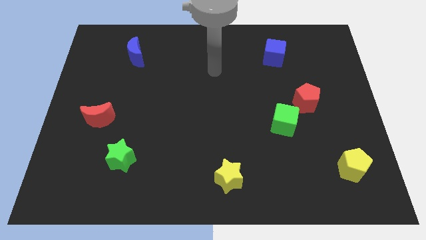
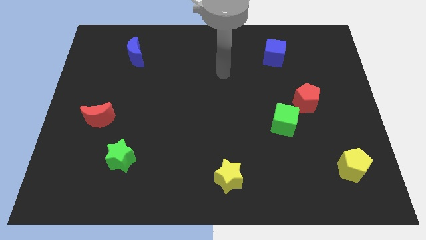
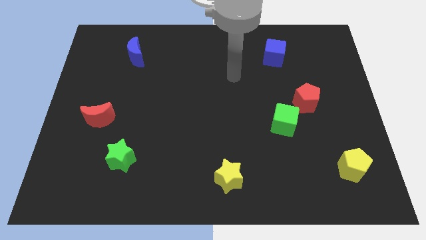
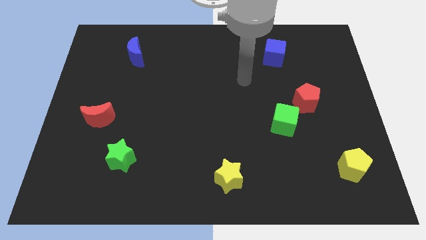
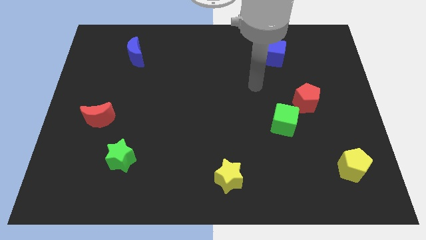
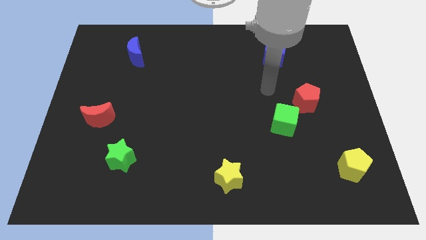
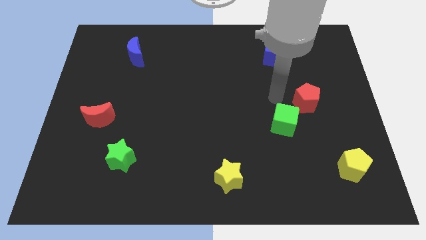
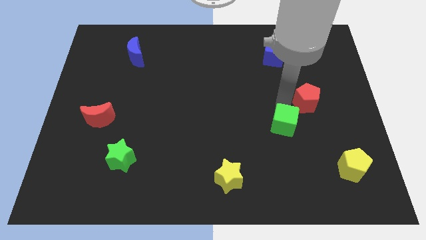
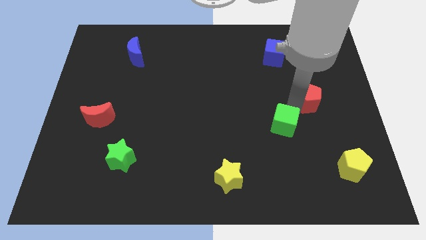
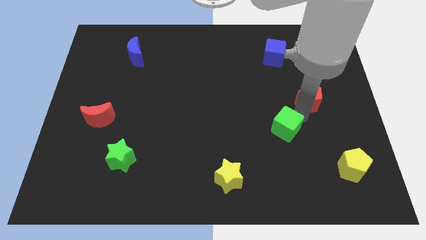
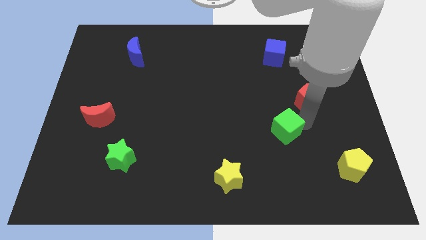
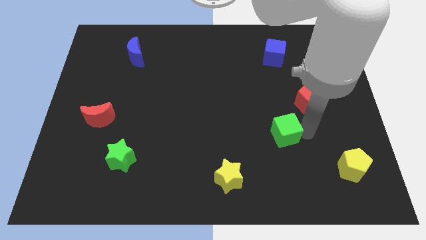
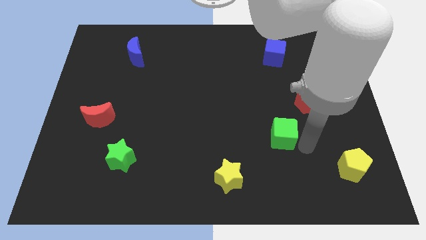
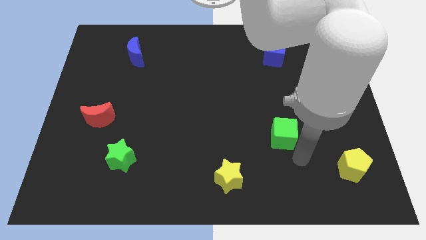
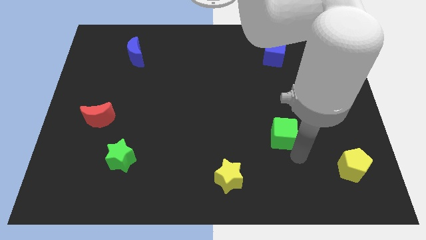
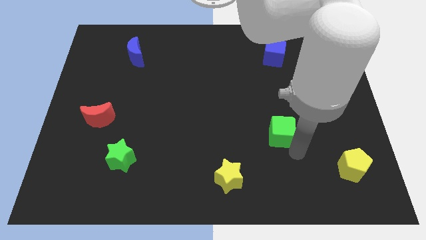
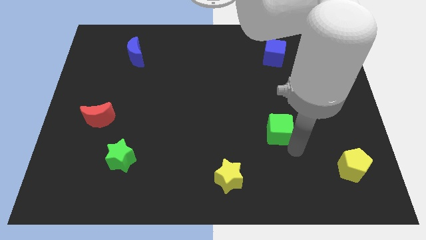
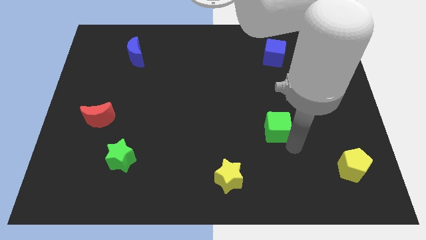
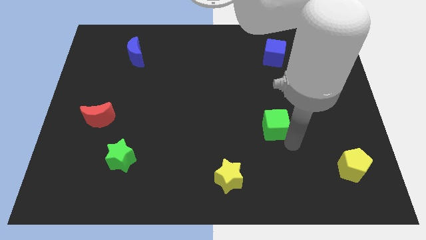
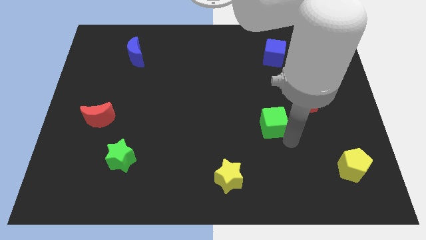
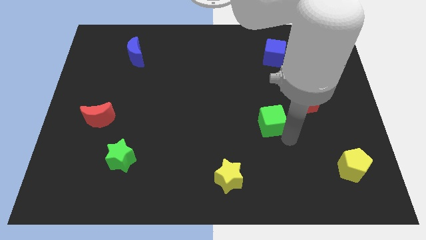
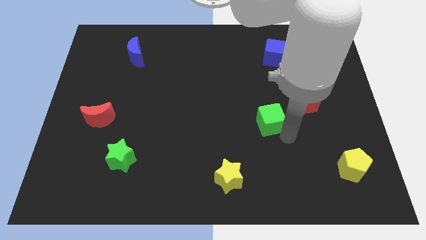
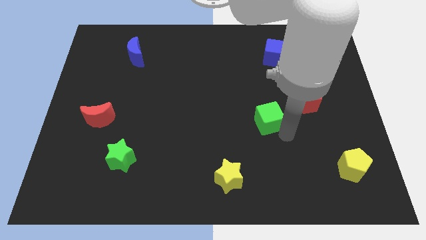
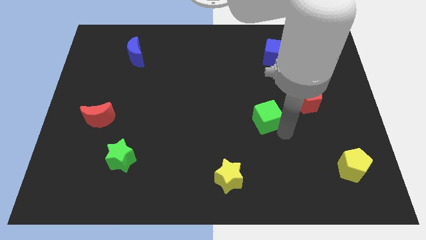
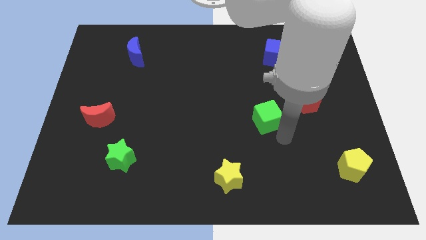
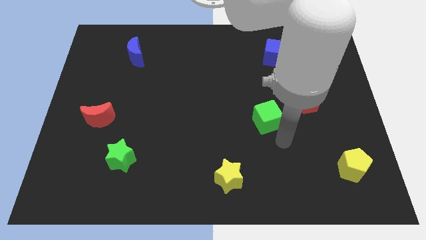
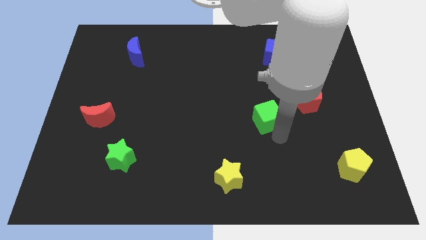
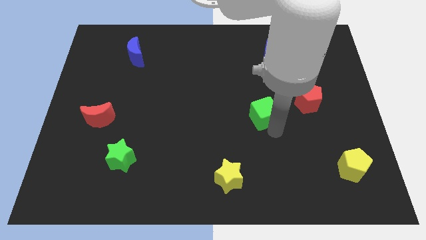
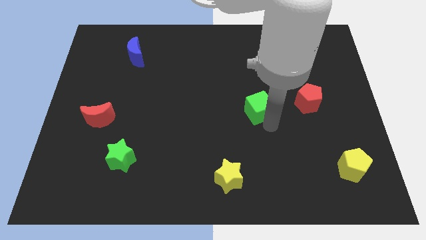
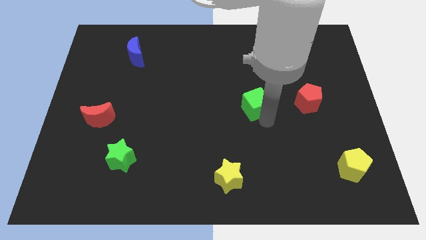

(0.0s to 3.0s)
push the green cube upwards and then left a little

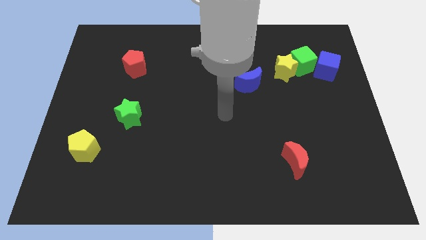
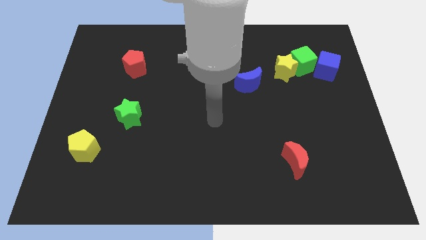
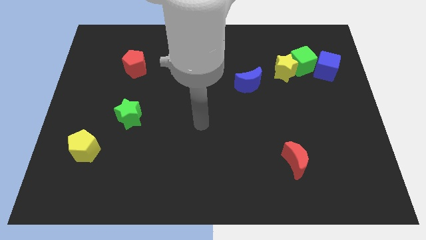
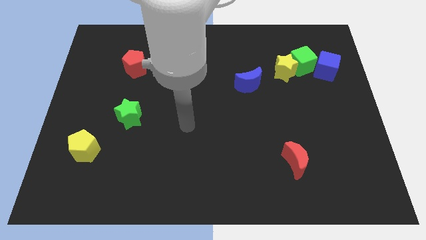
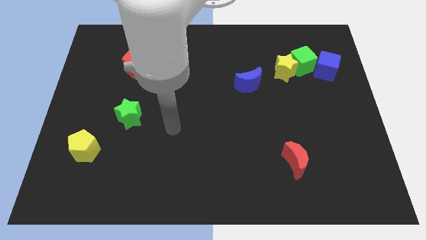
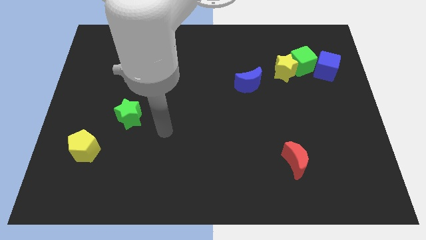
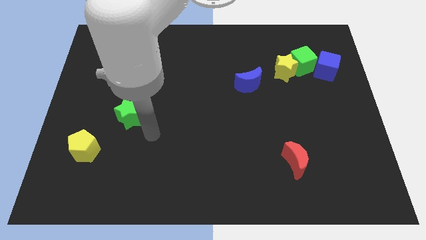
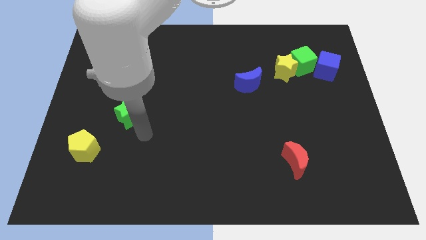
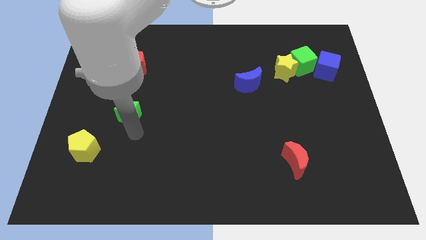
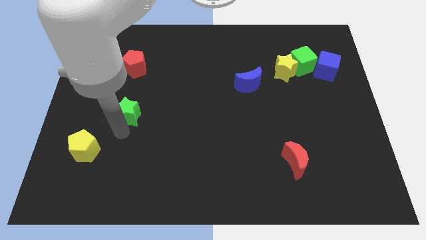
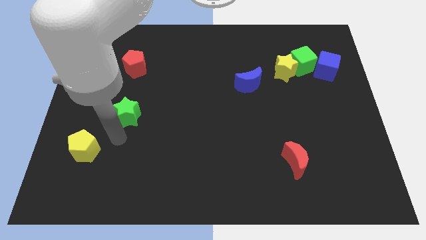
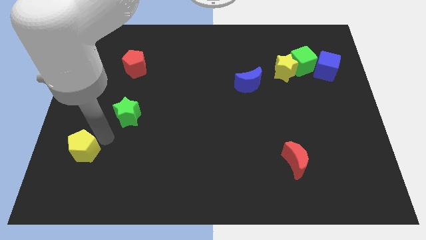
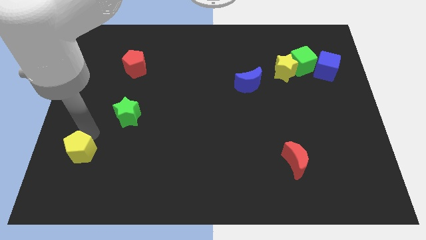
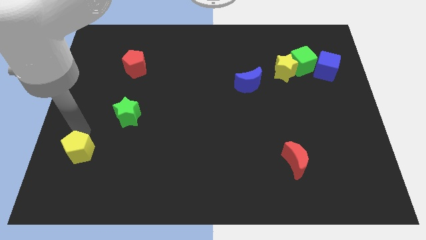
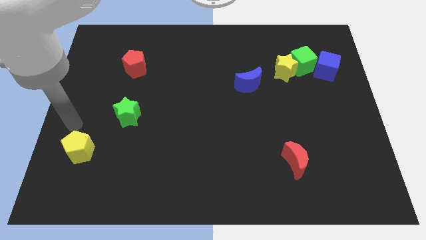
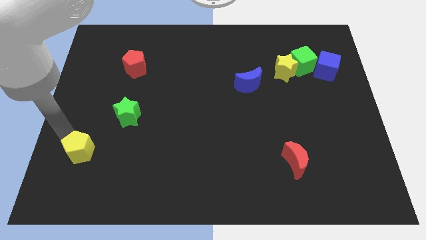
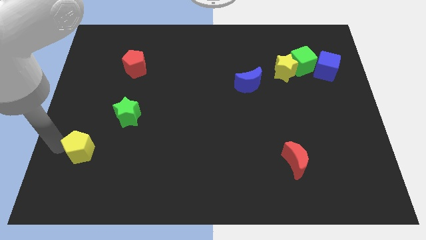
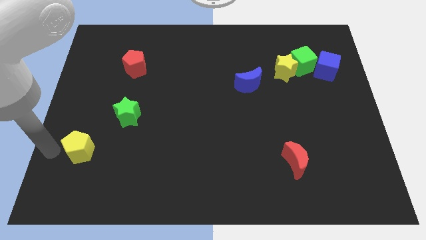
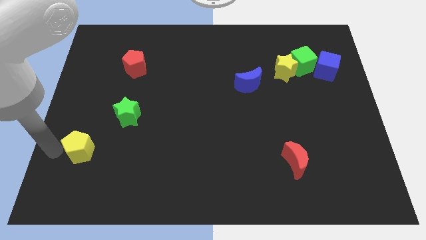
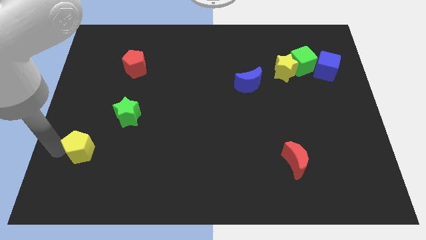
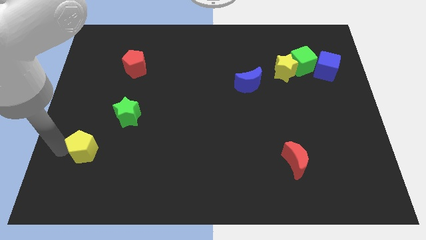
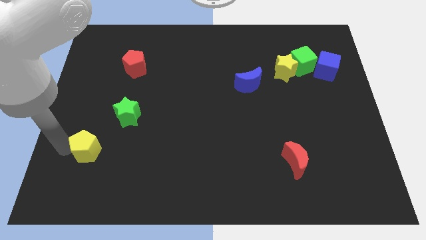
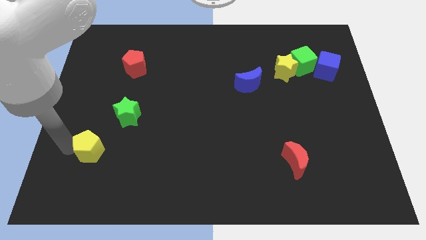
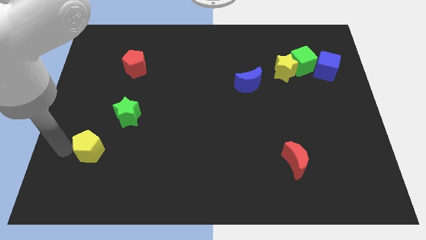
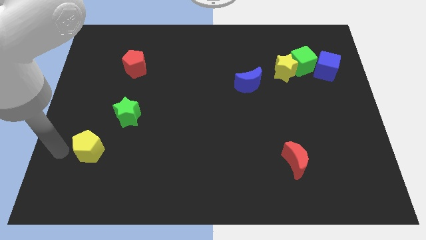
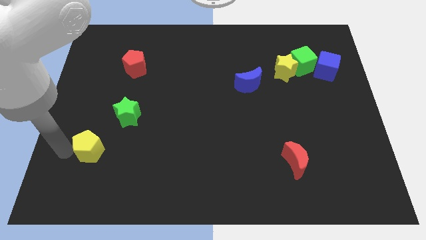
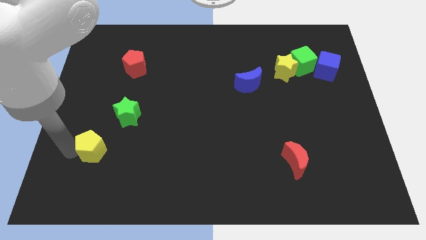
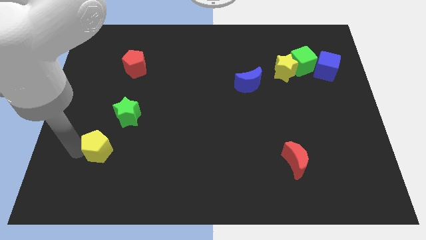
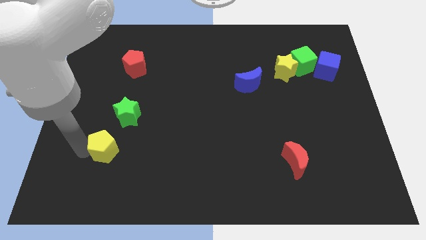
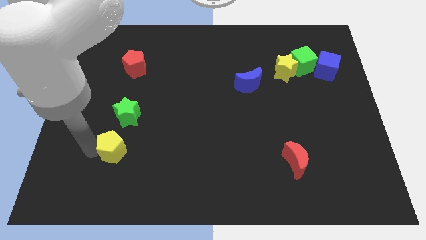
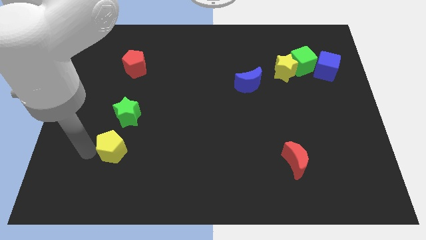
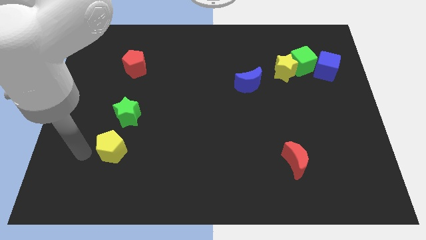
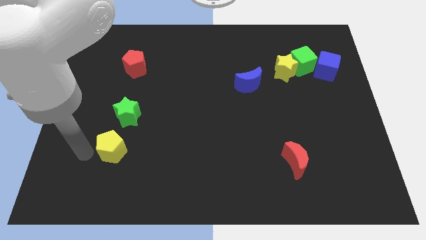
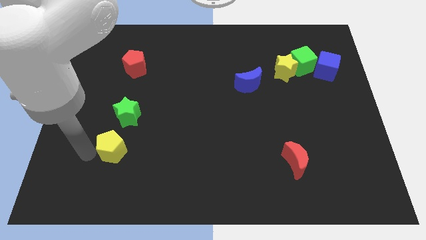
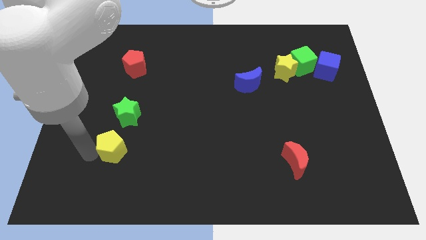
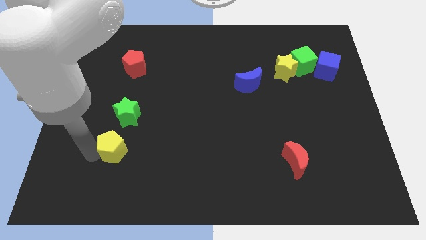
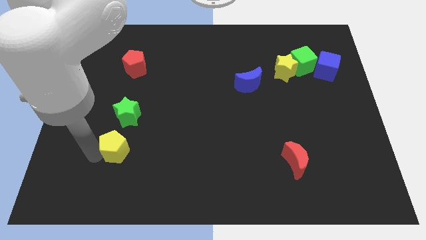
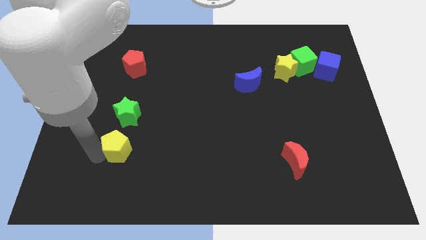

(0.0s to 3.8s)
slide the yellow pentagon right somewhat

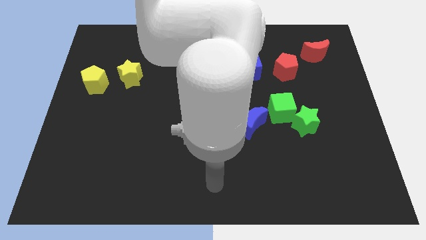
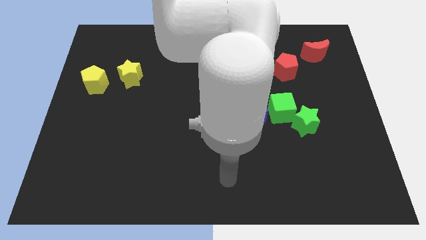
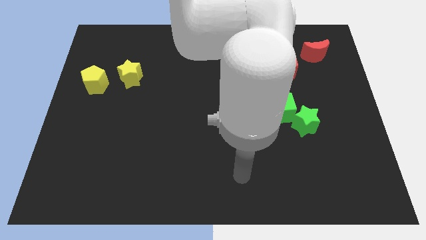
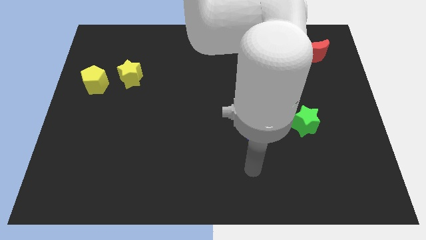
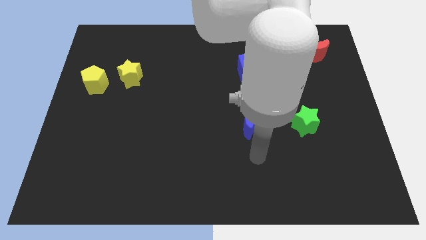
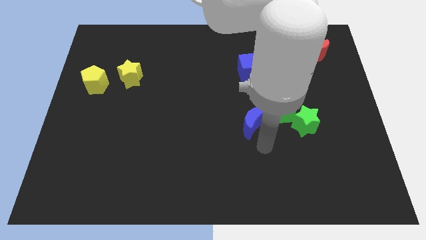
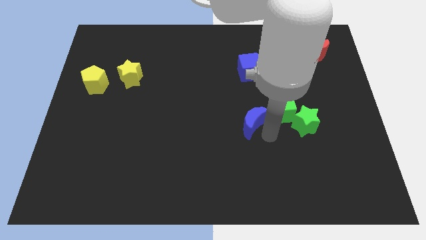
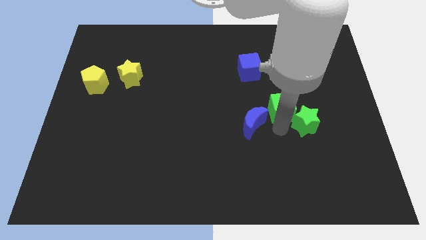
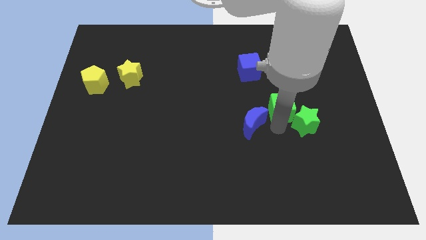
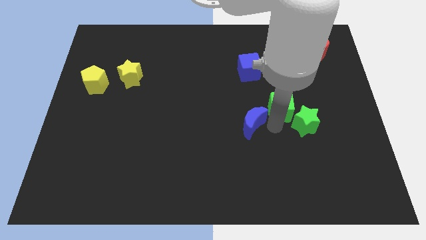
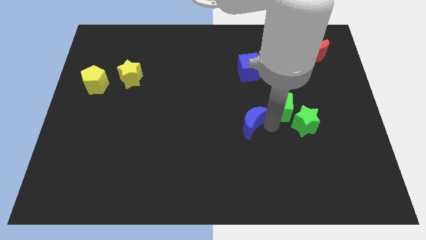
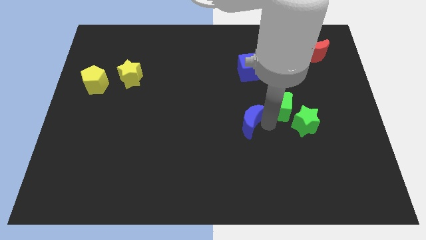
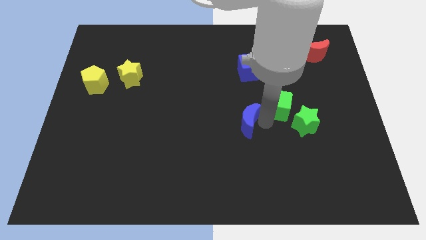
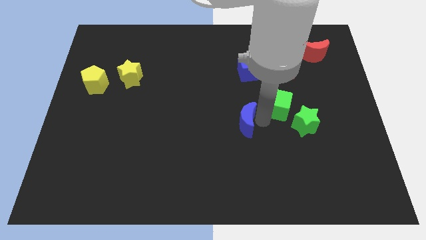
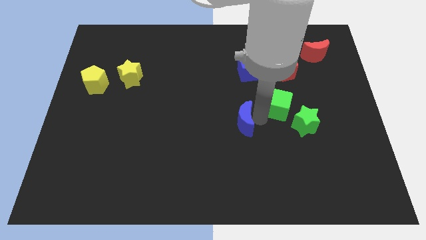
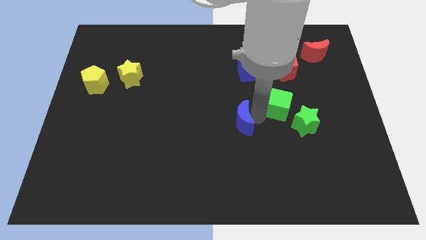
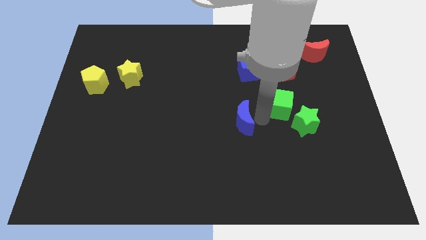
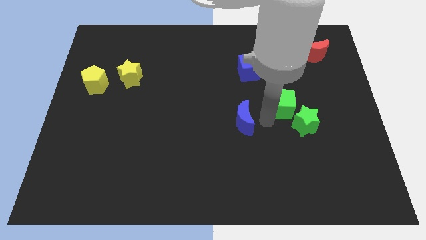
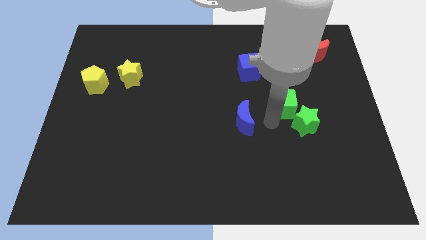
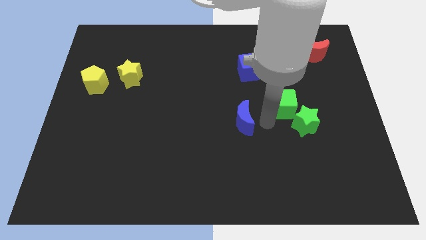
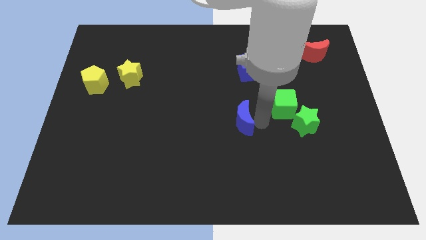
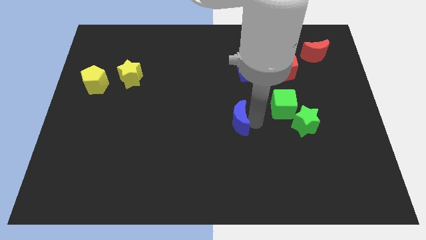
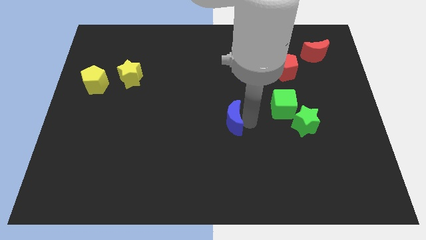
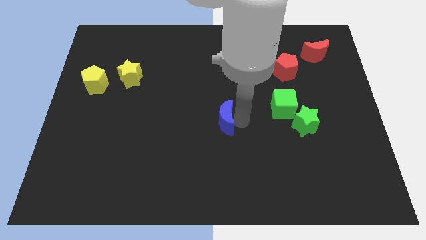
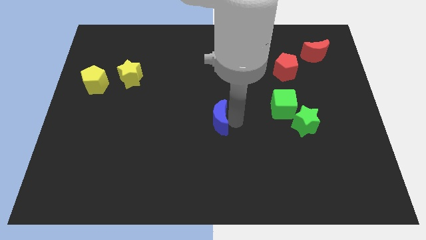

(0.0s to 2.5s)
push the blue moon somewhat left
